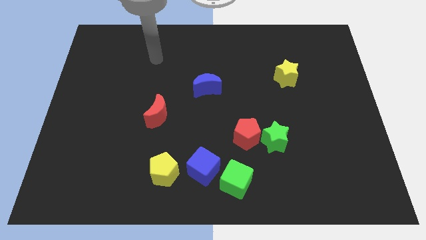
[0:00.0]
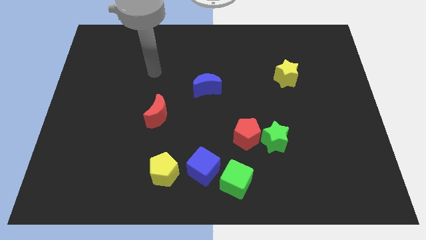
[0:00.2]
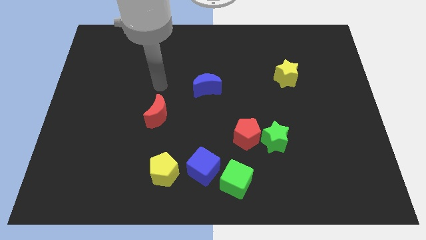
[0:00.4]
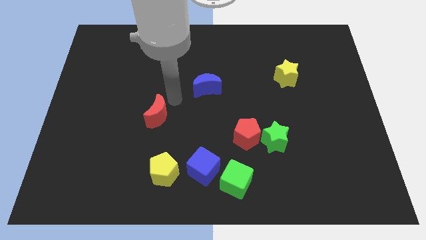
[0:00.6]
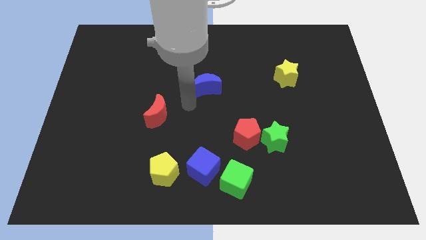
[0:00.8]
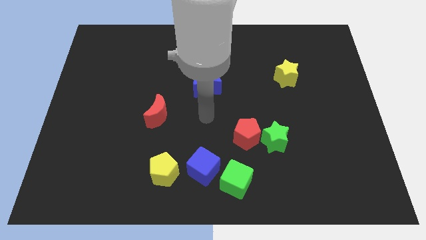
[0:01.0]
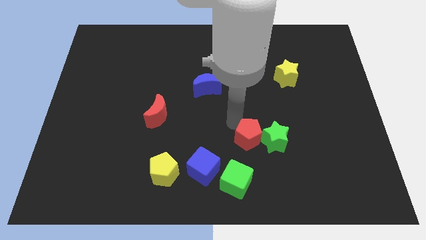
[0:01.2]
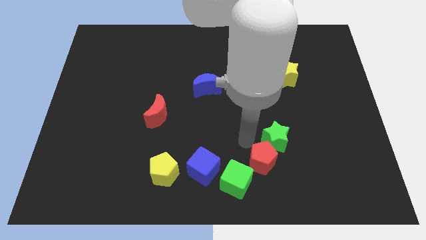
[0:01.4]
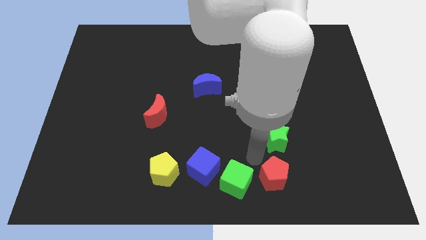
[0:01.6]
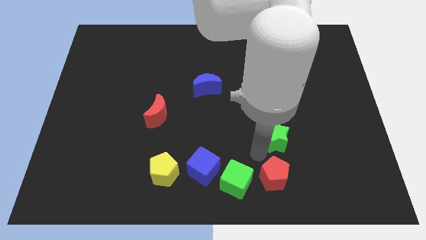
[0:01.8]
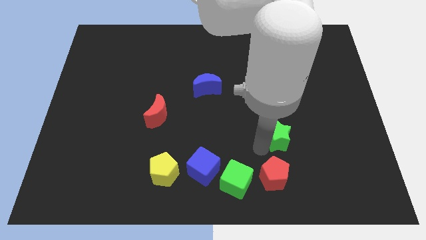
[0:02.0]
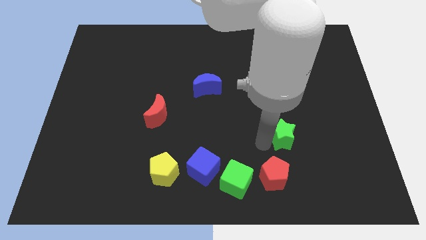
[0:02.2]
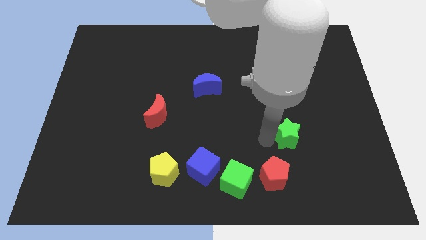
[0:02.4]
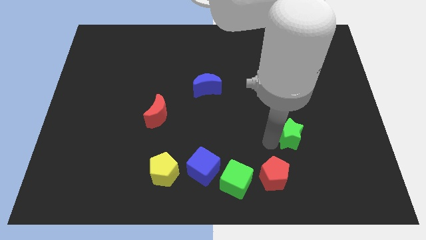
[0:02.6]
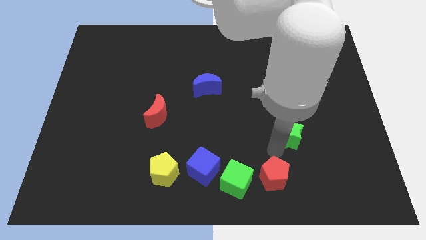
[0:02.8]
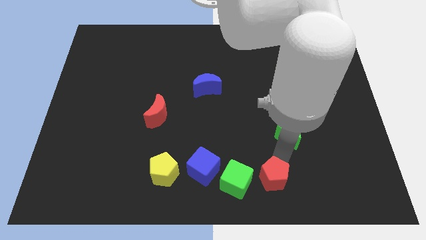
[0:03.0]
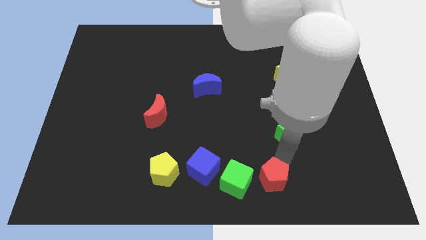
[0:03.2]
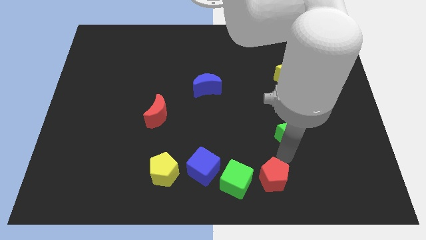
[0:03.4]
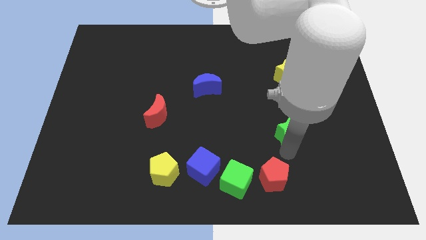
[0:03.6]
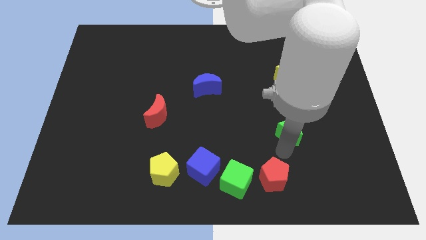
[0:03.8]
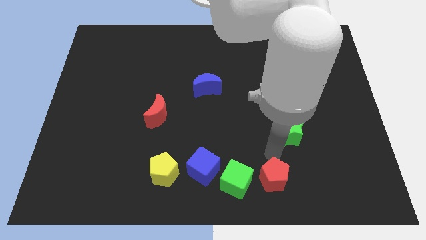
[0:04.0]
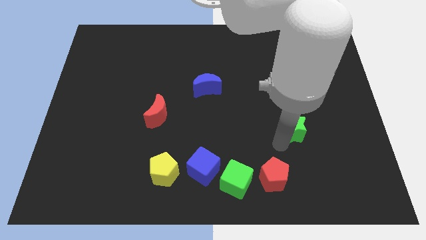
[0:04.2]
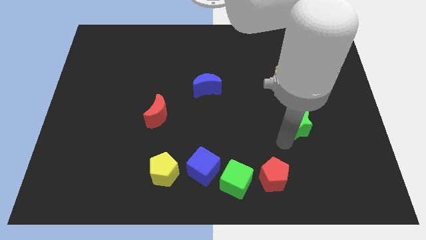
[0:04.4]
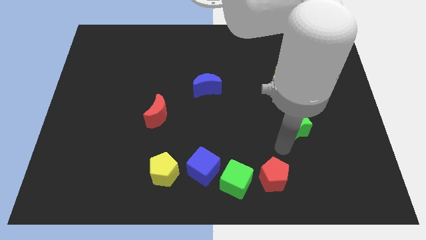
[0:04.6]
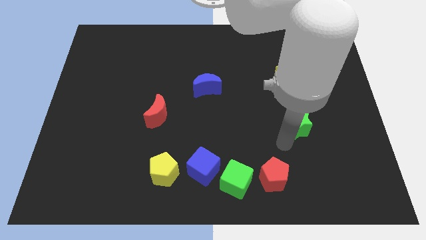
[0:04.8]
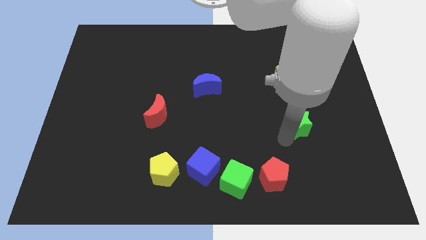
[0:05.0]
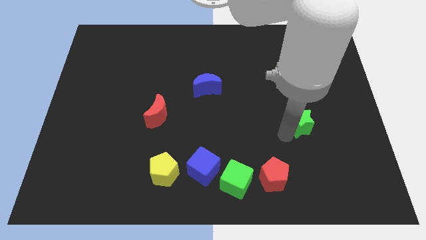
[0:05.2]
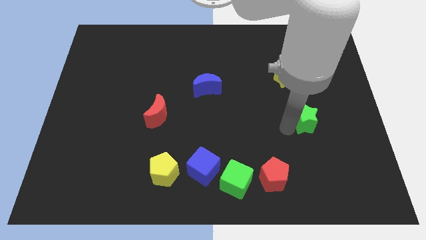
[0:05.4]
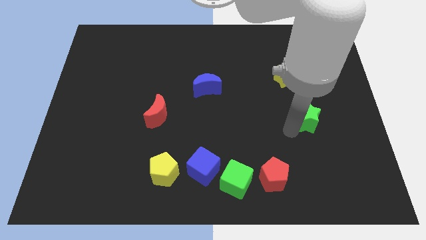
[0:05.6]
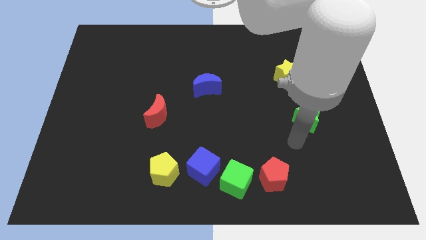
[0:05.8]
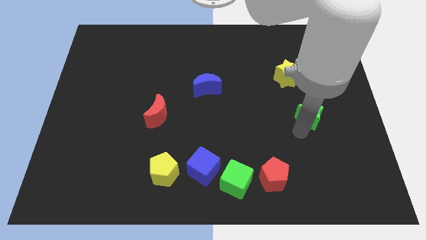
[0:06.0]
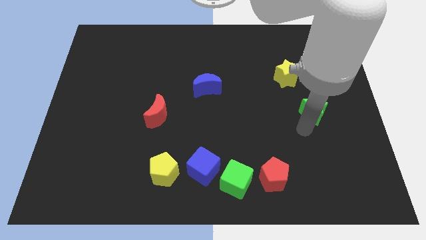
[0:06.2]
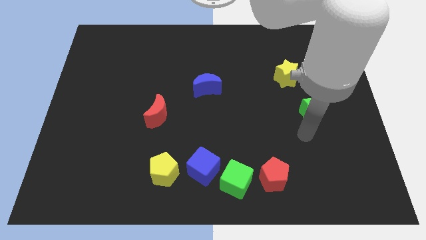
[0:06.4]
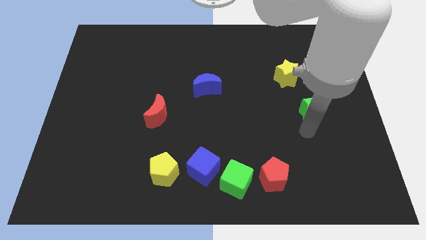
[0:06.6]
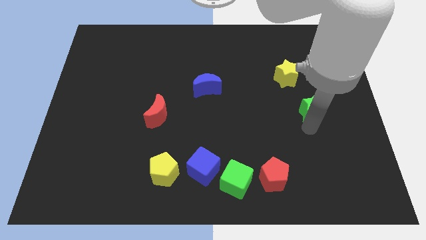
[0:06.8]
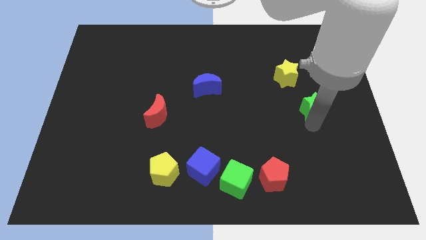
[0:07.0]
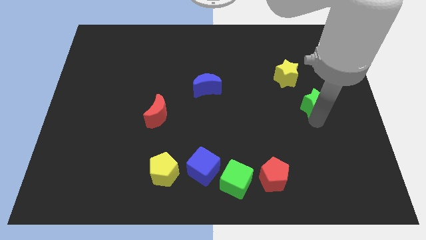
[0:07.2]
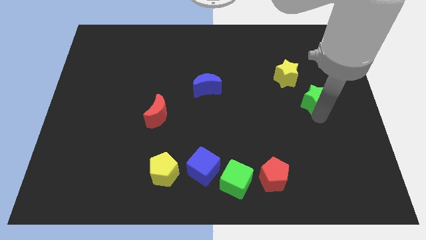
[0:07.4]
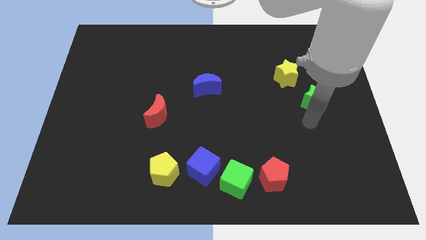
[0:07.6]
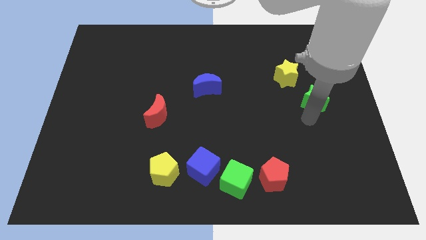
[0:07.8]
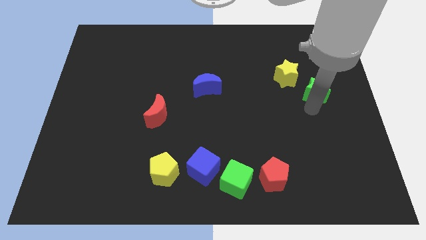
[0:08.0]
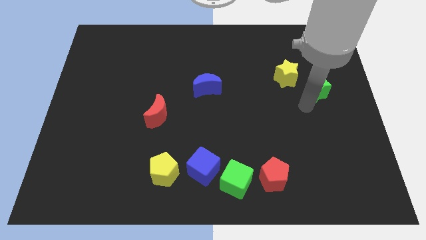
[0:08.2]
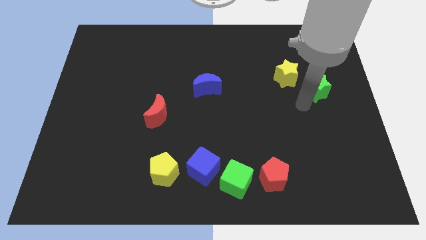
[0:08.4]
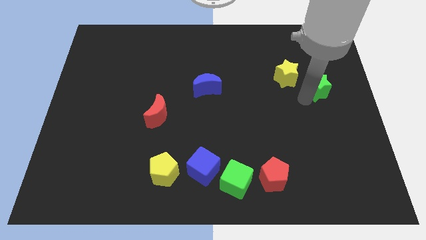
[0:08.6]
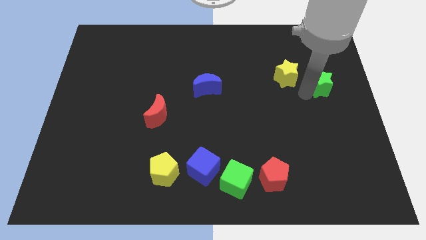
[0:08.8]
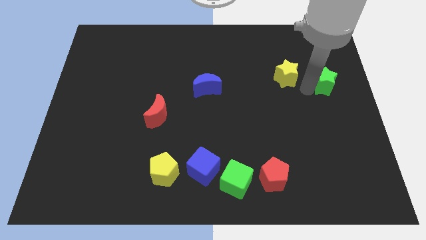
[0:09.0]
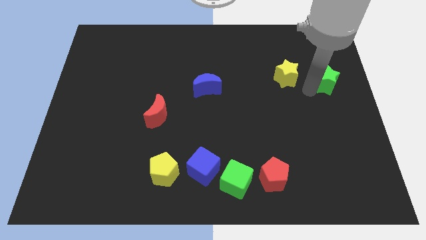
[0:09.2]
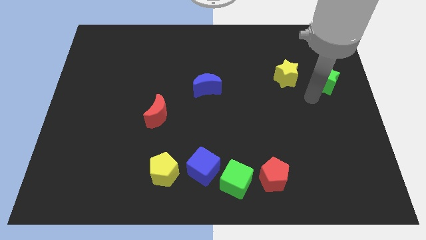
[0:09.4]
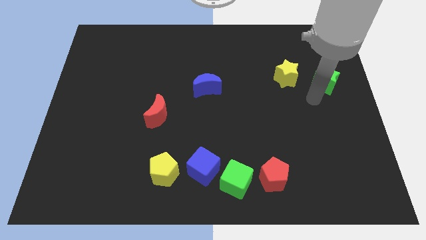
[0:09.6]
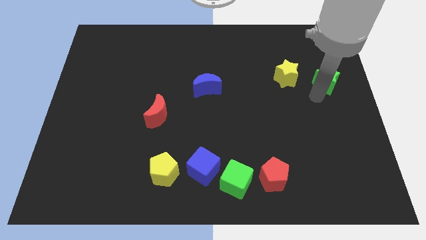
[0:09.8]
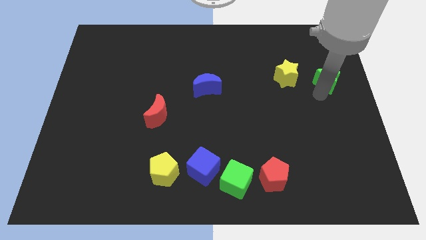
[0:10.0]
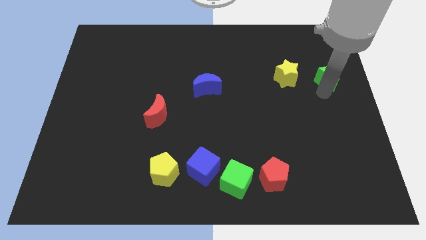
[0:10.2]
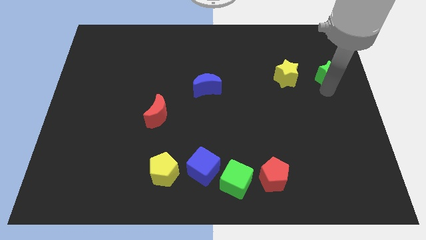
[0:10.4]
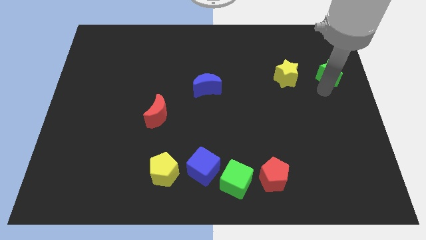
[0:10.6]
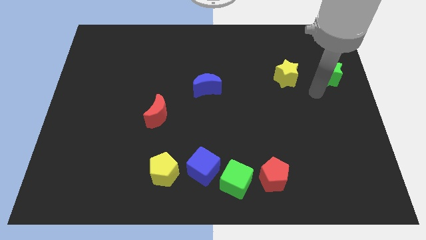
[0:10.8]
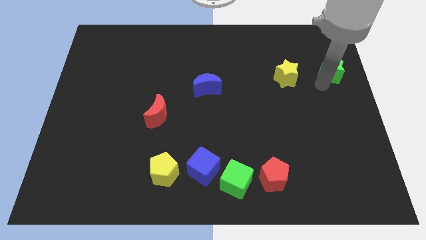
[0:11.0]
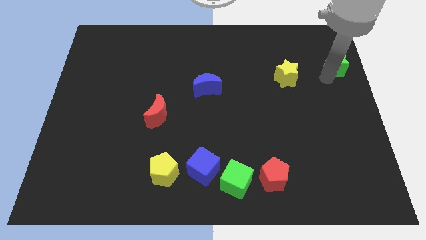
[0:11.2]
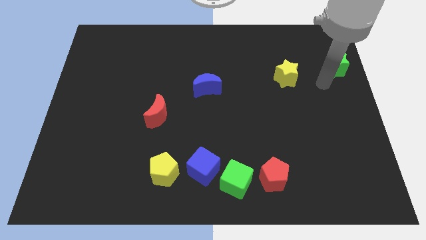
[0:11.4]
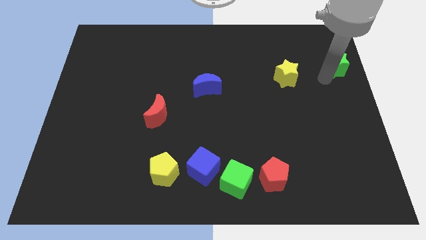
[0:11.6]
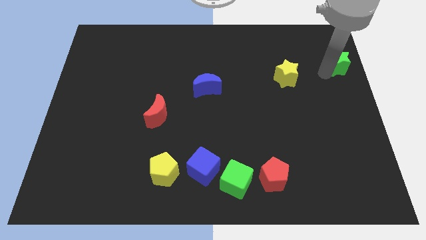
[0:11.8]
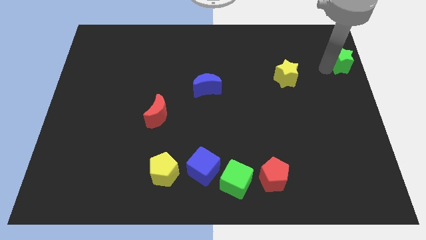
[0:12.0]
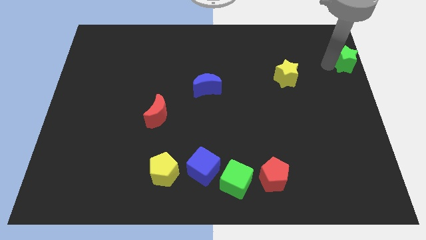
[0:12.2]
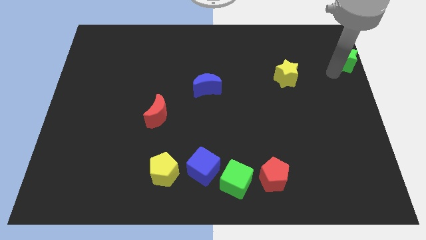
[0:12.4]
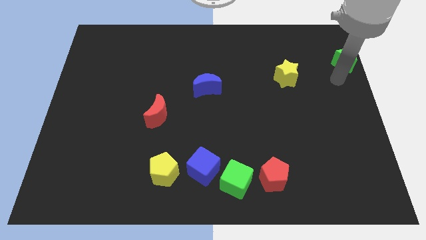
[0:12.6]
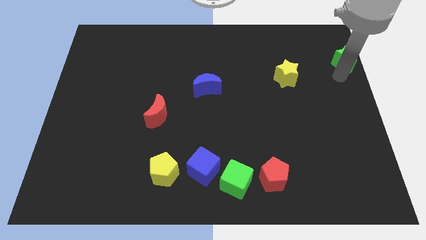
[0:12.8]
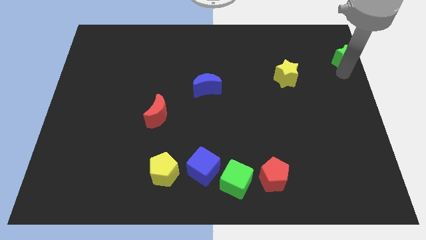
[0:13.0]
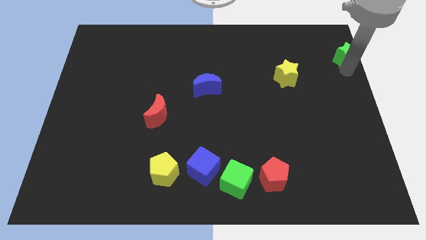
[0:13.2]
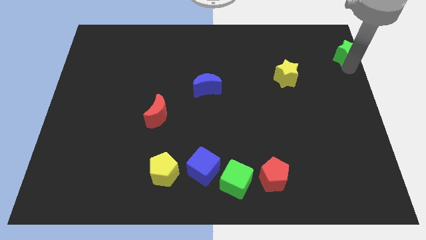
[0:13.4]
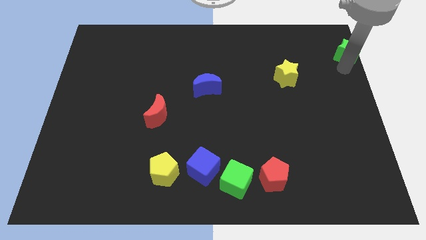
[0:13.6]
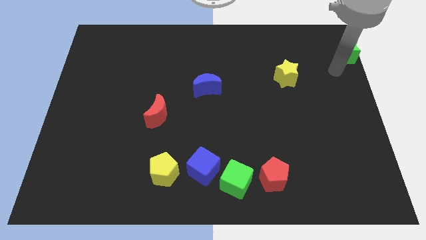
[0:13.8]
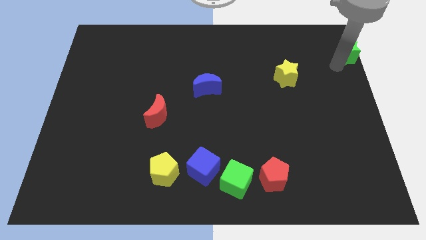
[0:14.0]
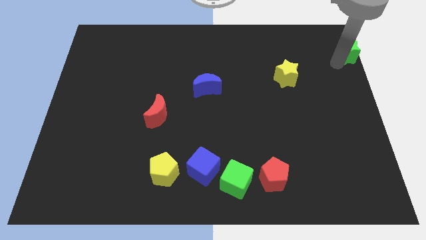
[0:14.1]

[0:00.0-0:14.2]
put the green star to the top right of the board
